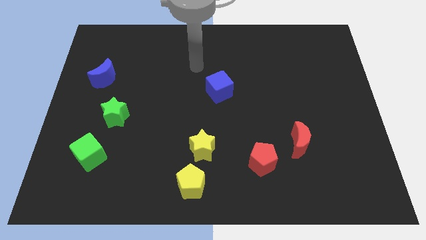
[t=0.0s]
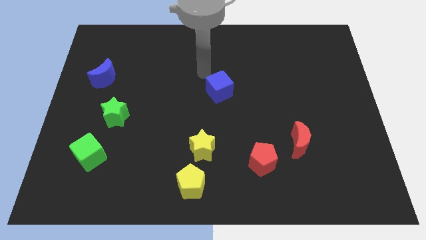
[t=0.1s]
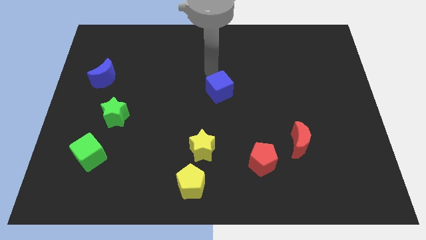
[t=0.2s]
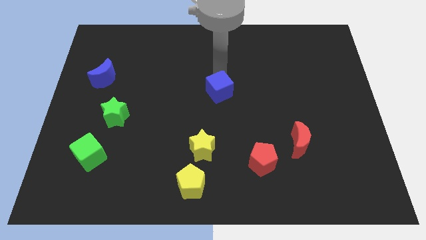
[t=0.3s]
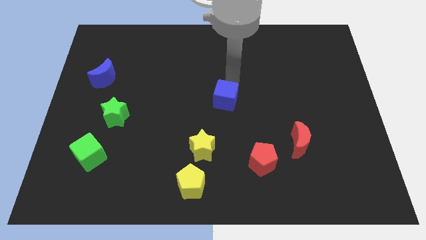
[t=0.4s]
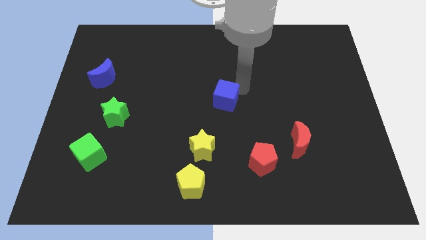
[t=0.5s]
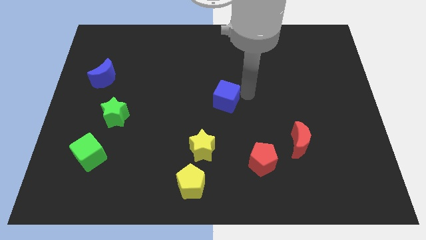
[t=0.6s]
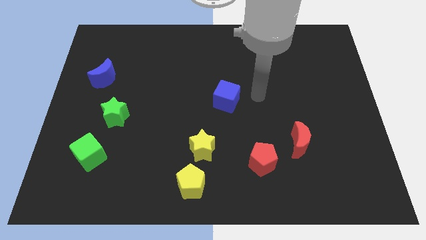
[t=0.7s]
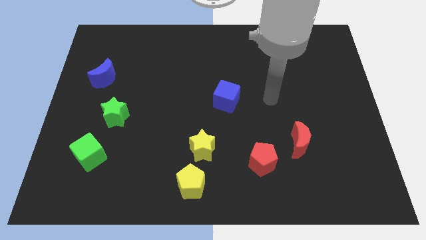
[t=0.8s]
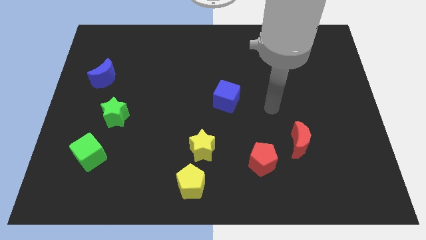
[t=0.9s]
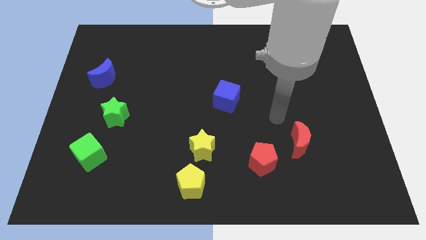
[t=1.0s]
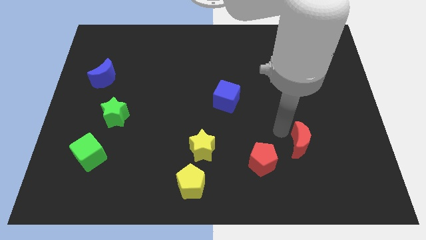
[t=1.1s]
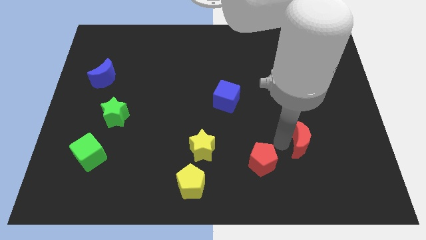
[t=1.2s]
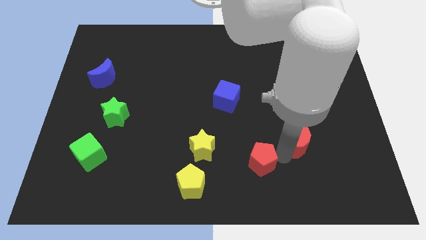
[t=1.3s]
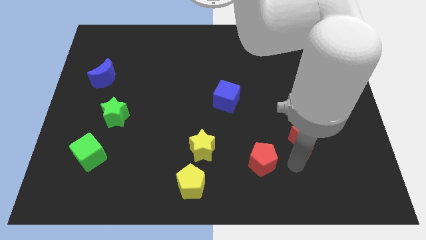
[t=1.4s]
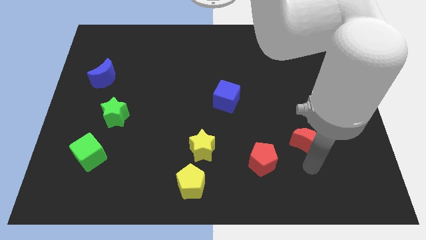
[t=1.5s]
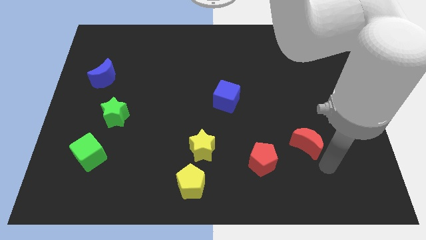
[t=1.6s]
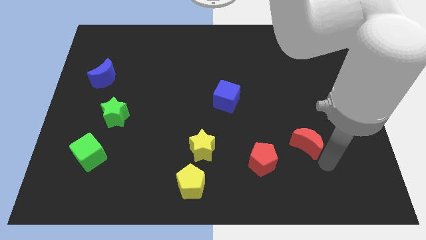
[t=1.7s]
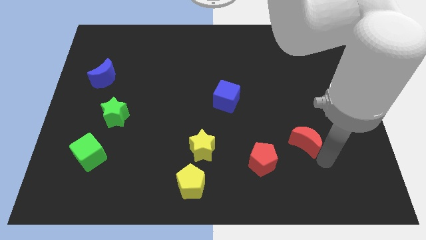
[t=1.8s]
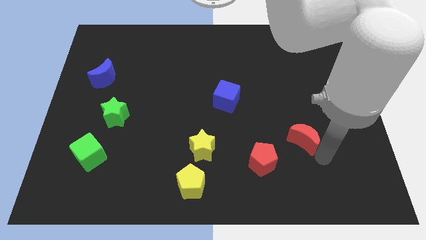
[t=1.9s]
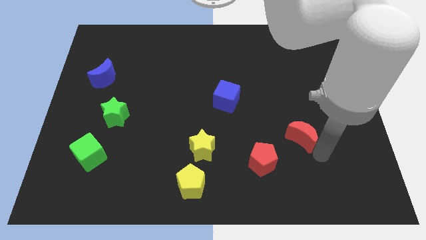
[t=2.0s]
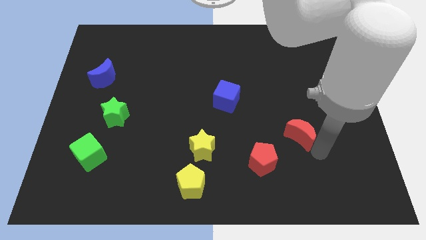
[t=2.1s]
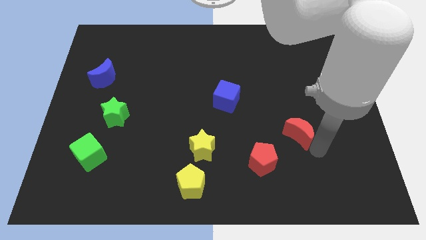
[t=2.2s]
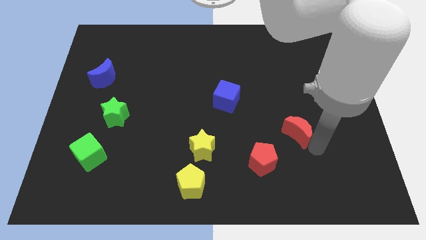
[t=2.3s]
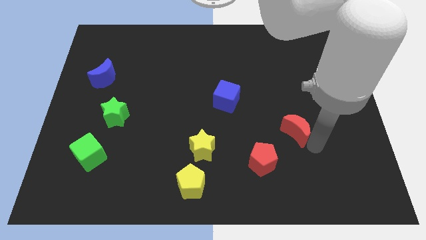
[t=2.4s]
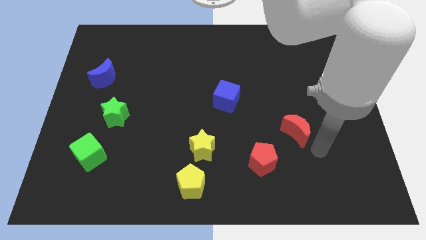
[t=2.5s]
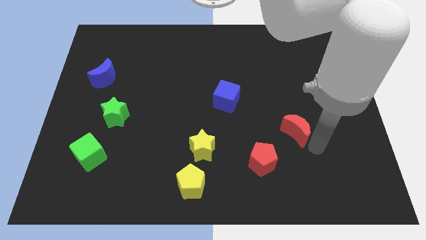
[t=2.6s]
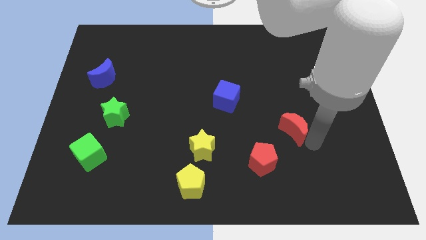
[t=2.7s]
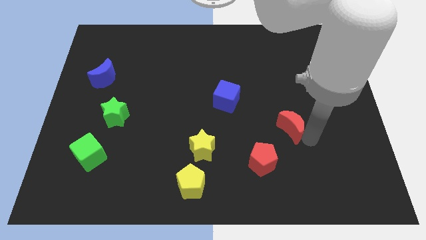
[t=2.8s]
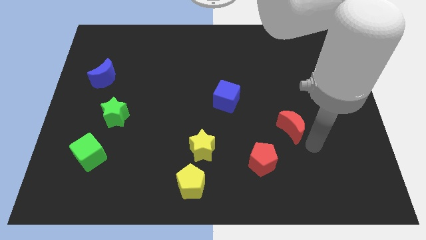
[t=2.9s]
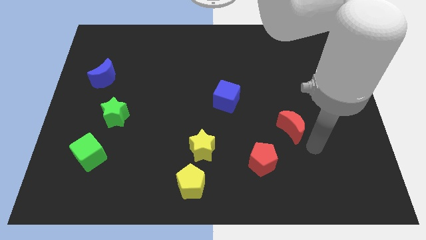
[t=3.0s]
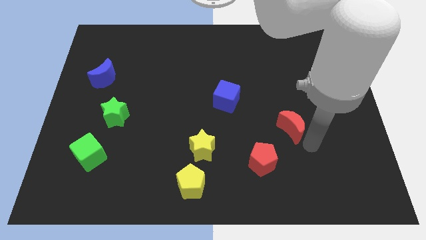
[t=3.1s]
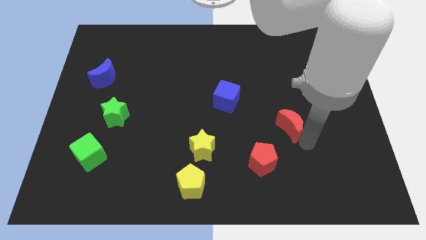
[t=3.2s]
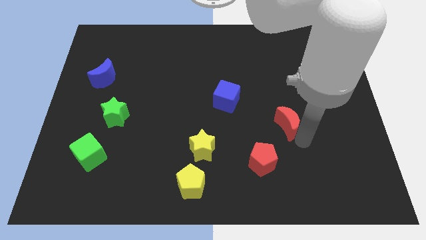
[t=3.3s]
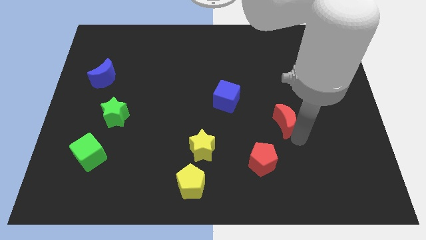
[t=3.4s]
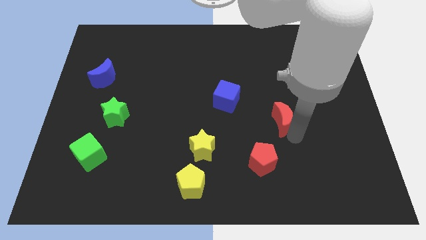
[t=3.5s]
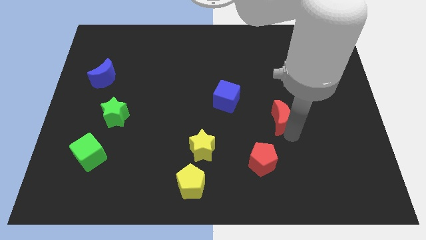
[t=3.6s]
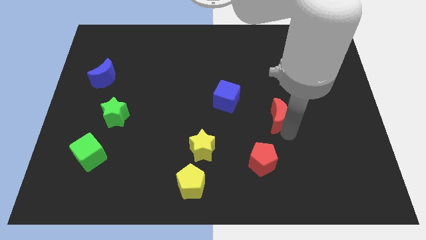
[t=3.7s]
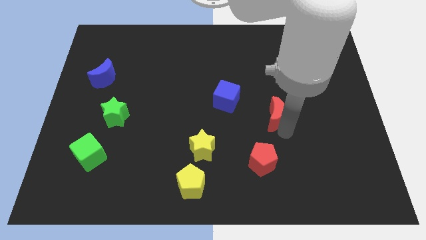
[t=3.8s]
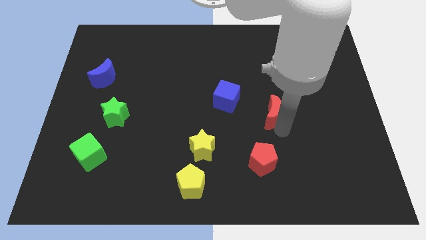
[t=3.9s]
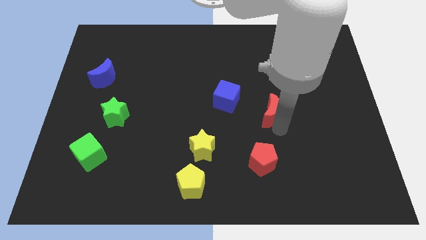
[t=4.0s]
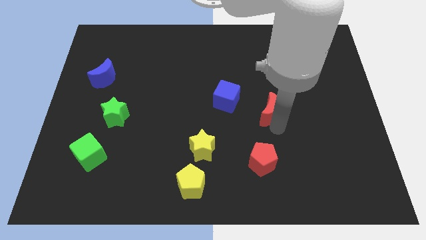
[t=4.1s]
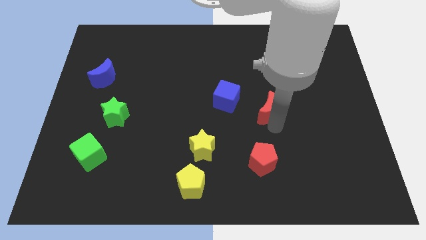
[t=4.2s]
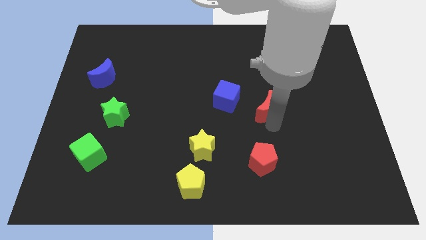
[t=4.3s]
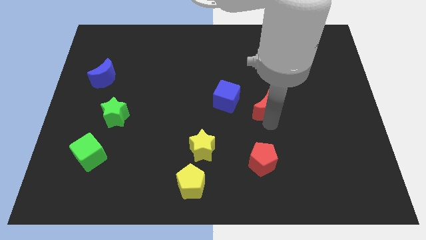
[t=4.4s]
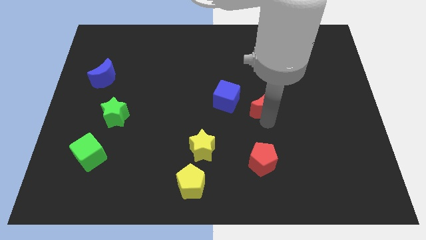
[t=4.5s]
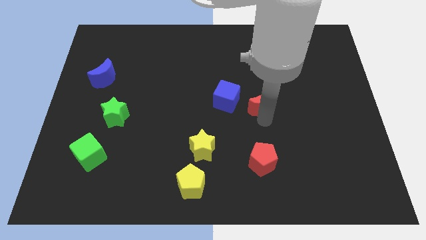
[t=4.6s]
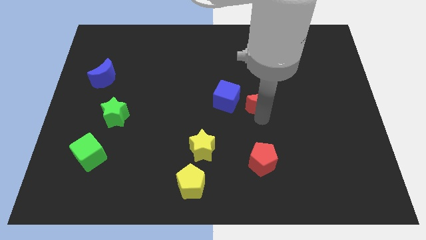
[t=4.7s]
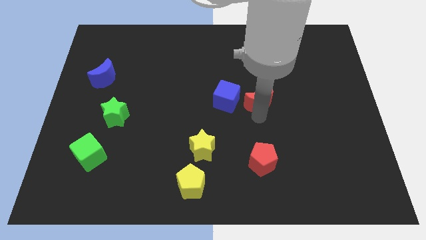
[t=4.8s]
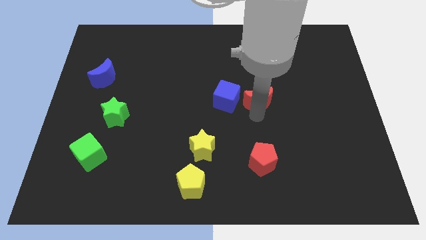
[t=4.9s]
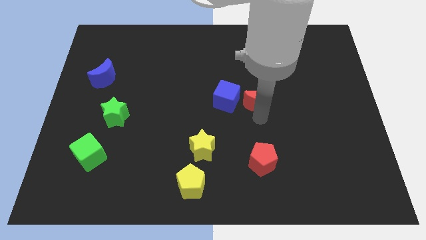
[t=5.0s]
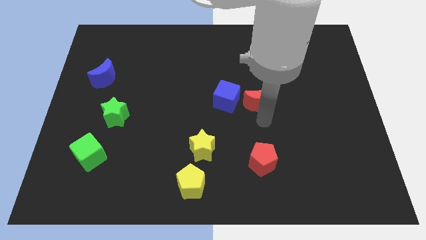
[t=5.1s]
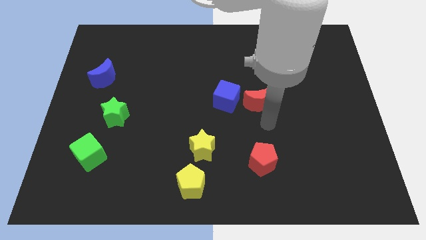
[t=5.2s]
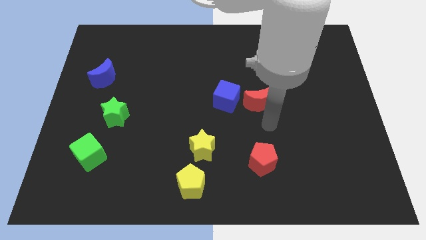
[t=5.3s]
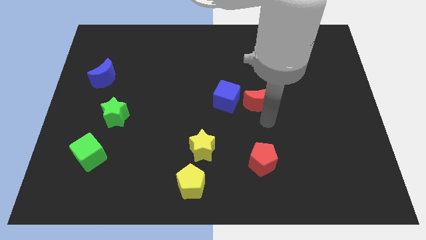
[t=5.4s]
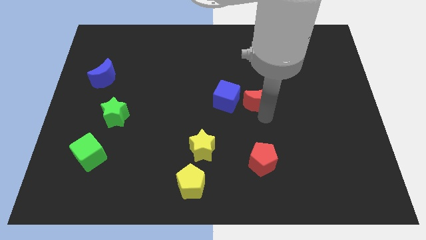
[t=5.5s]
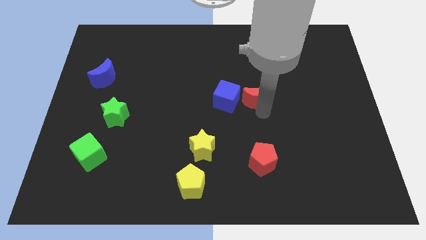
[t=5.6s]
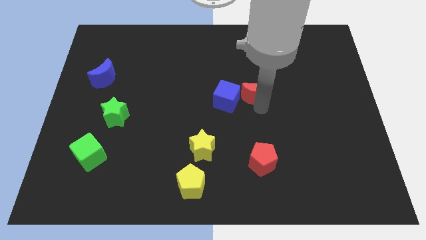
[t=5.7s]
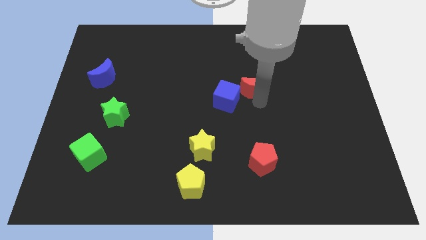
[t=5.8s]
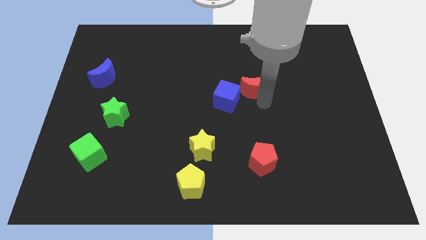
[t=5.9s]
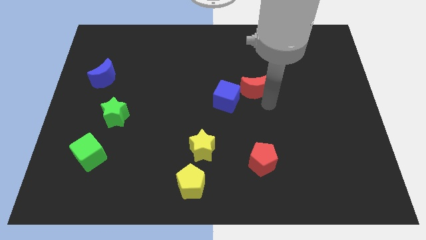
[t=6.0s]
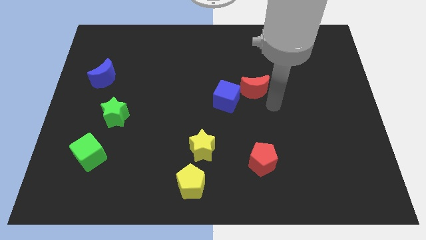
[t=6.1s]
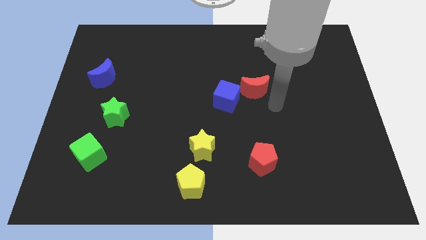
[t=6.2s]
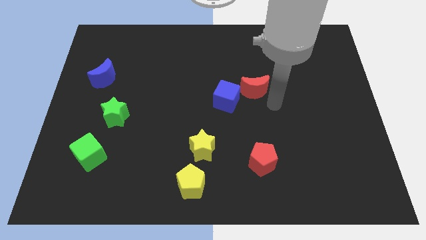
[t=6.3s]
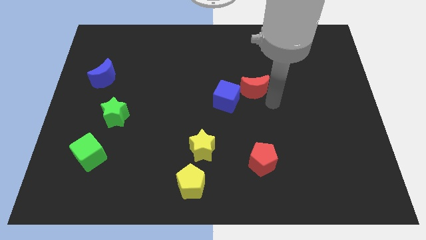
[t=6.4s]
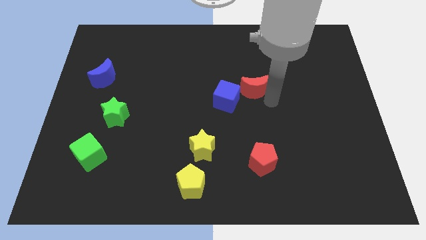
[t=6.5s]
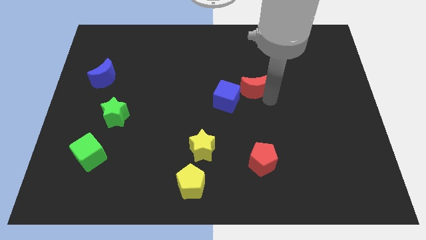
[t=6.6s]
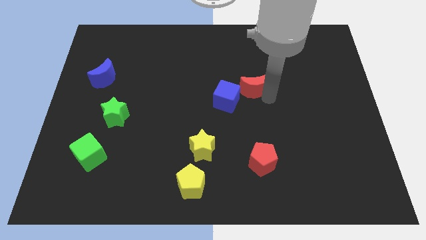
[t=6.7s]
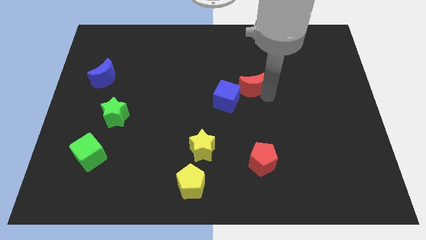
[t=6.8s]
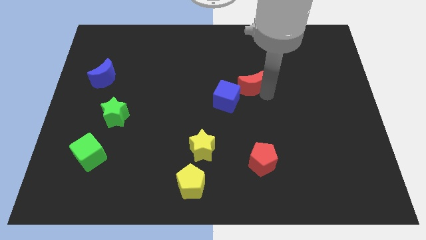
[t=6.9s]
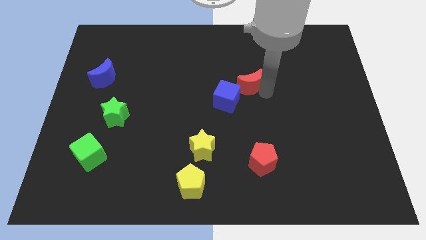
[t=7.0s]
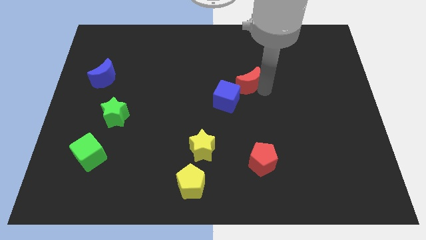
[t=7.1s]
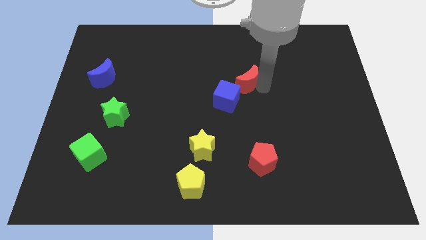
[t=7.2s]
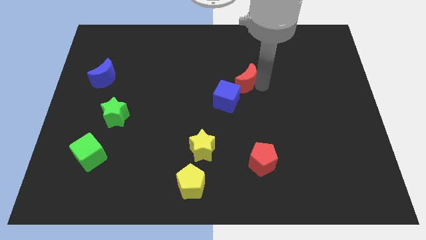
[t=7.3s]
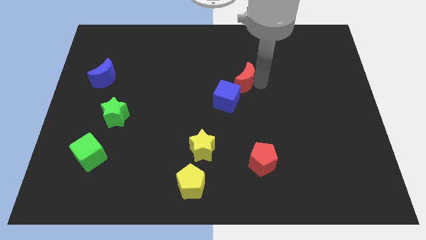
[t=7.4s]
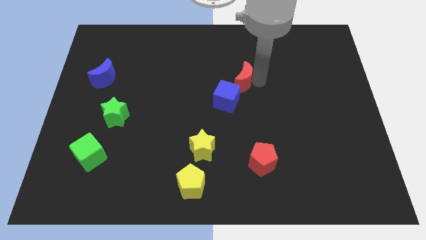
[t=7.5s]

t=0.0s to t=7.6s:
slide the red moon upwards and left

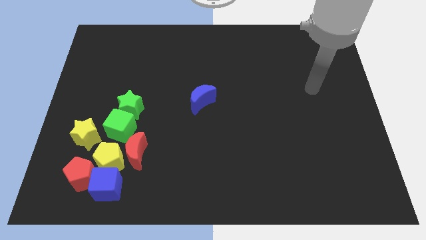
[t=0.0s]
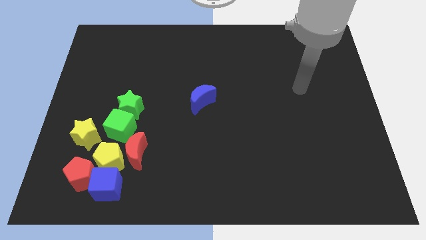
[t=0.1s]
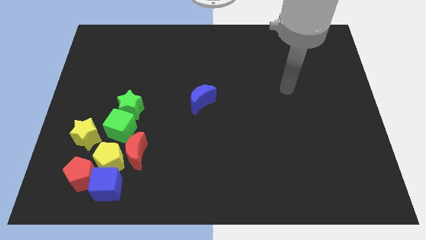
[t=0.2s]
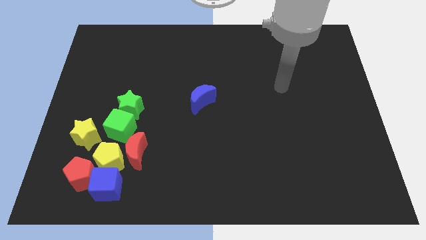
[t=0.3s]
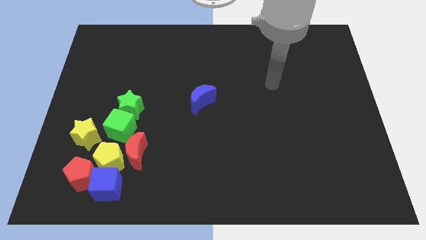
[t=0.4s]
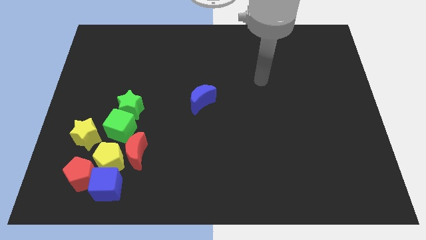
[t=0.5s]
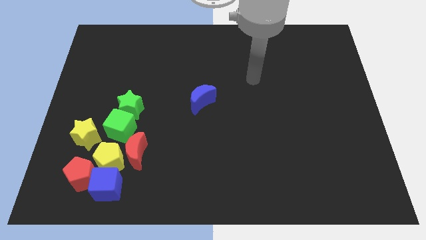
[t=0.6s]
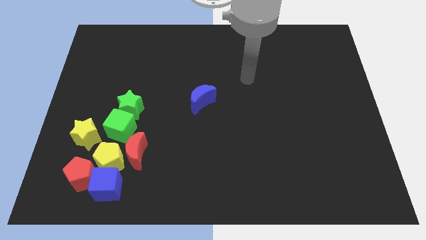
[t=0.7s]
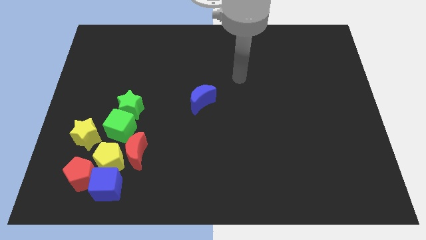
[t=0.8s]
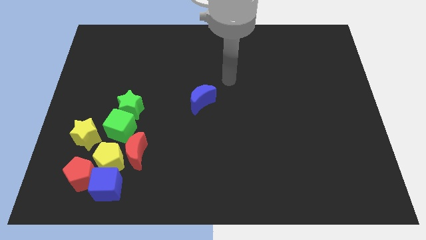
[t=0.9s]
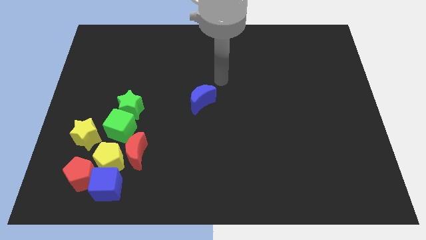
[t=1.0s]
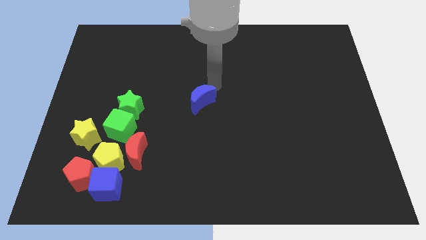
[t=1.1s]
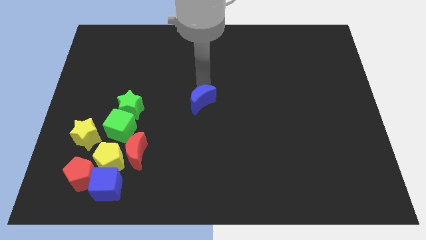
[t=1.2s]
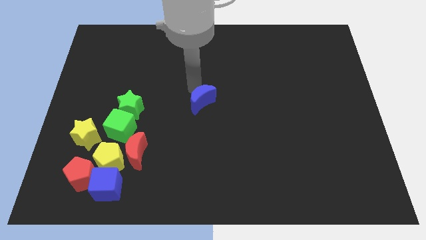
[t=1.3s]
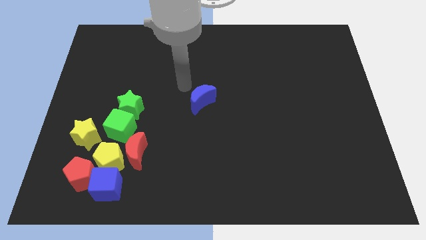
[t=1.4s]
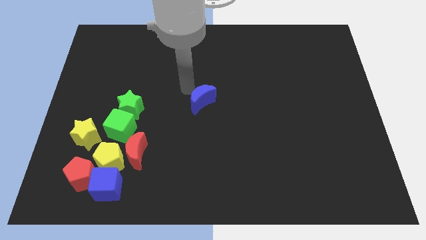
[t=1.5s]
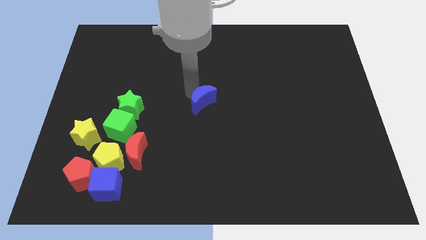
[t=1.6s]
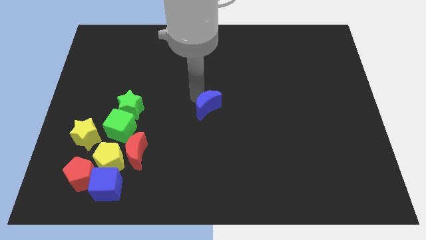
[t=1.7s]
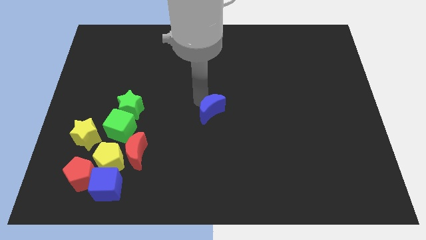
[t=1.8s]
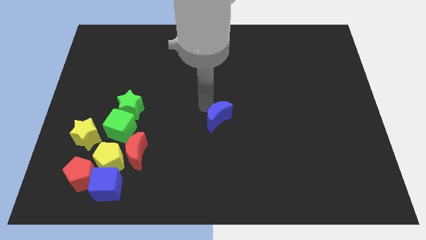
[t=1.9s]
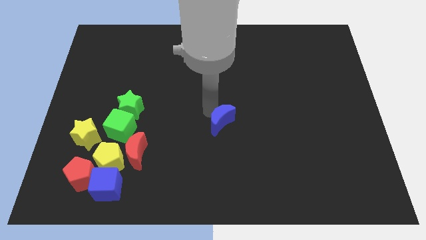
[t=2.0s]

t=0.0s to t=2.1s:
move the blue moon somewhat downwards and then right
